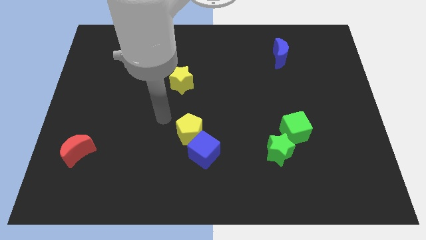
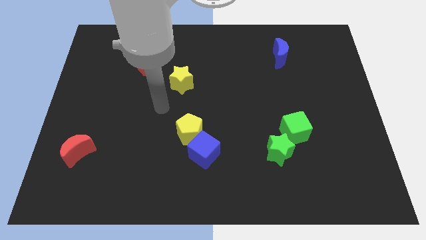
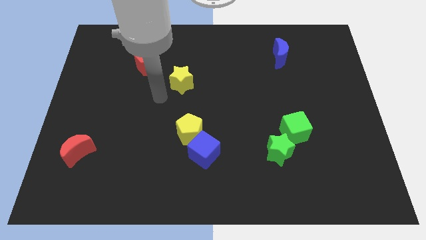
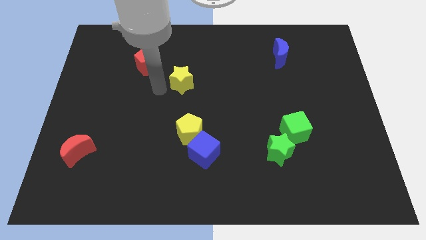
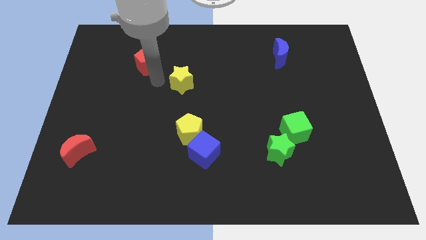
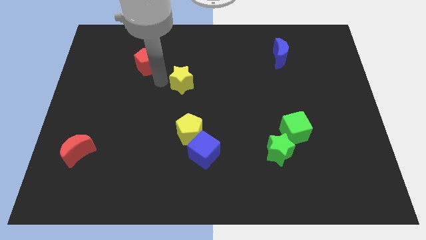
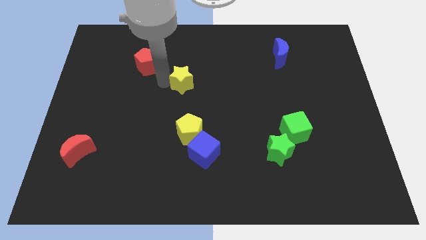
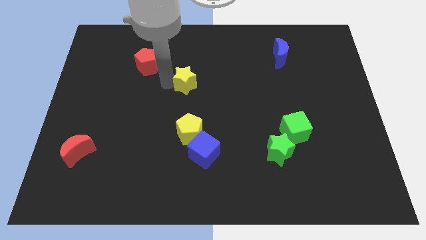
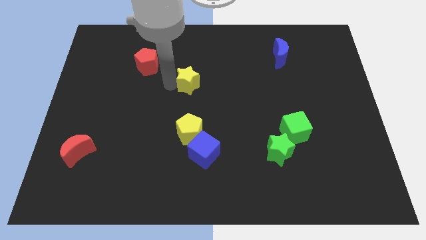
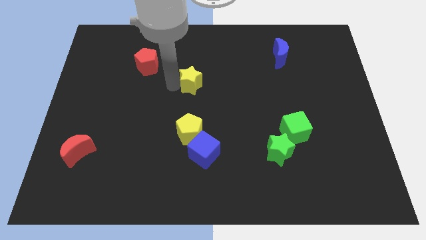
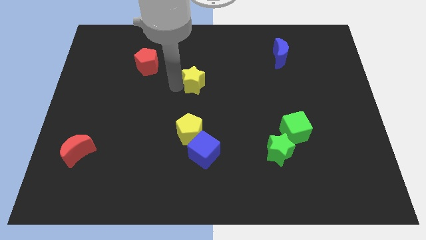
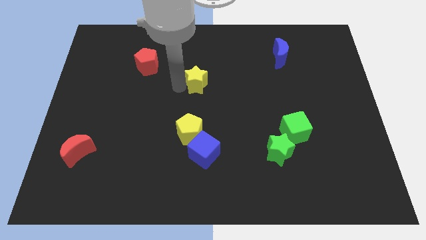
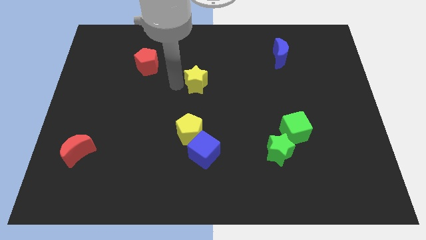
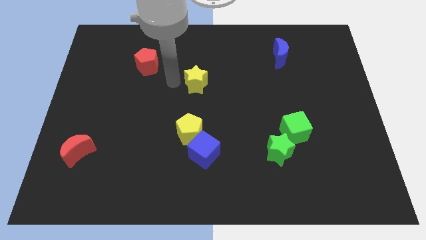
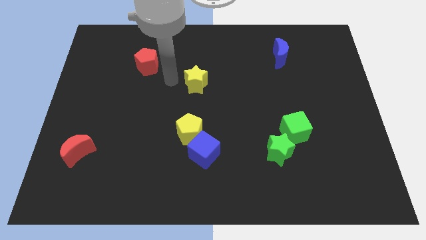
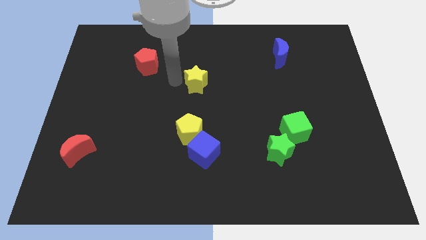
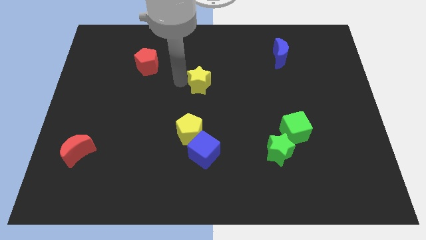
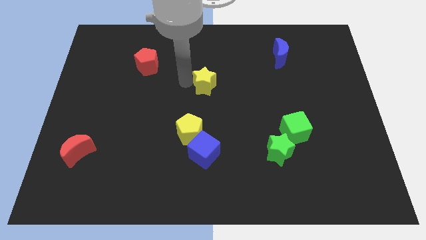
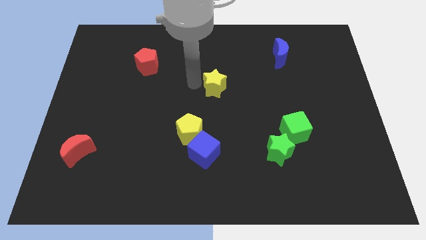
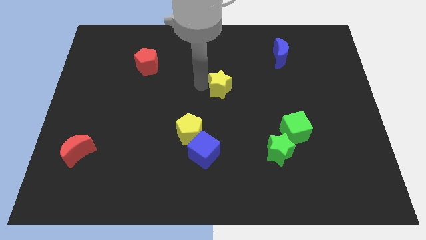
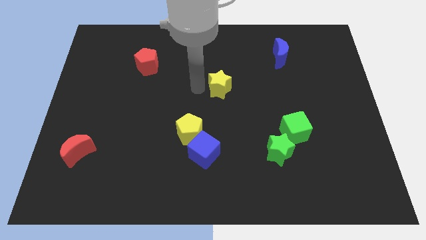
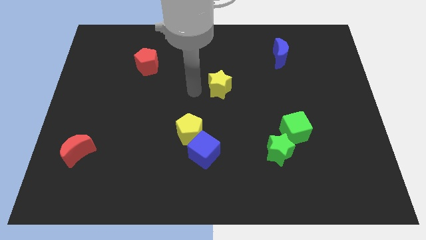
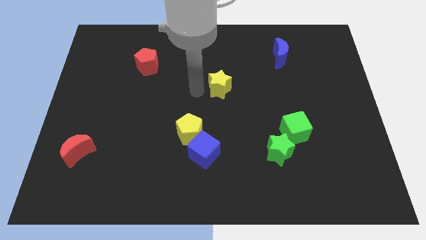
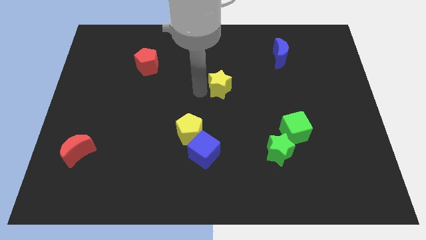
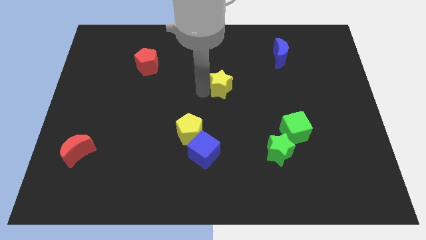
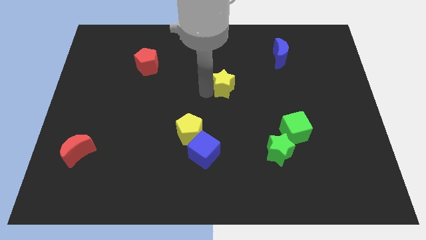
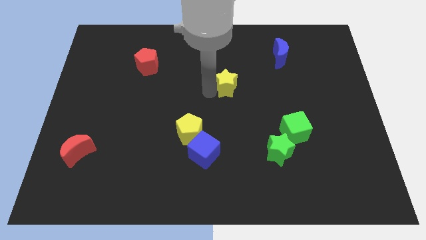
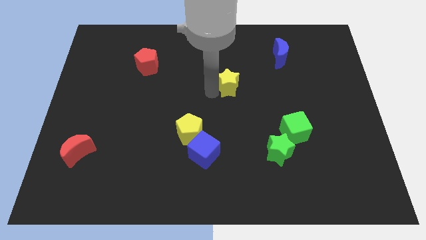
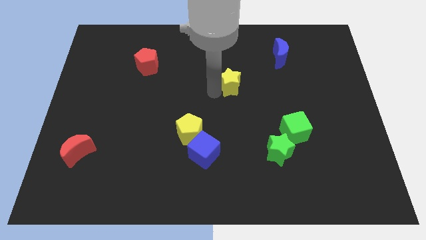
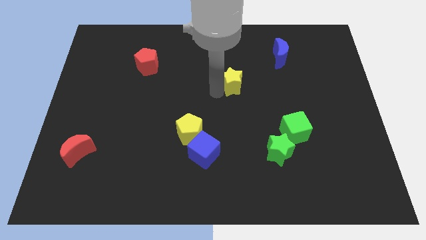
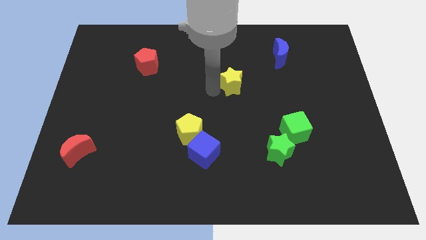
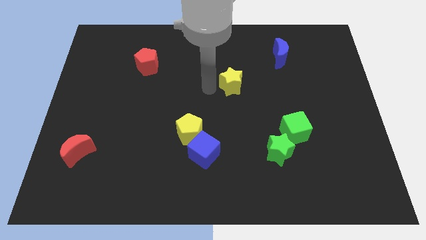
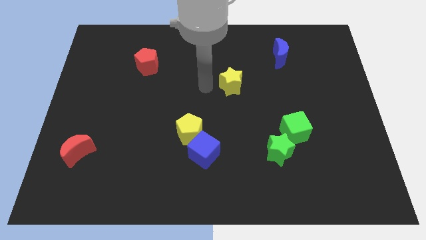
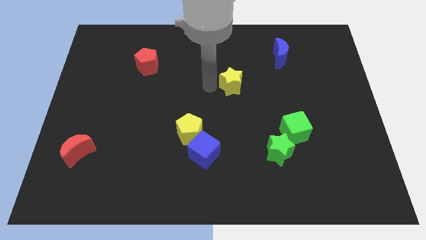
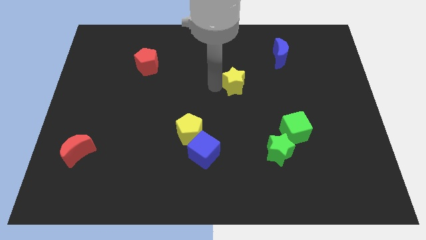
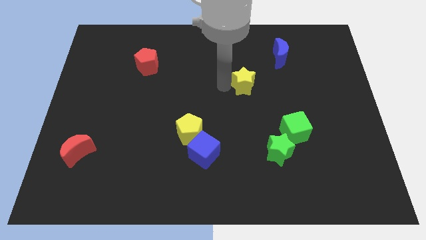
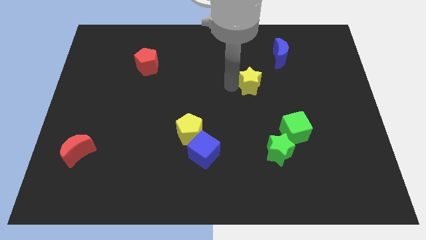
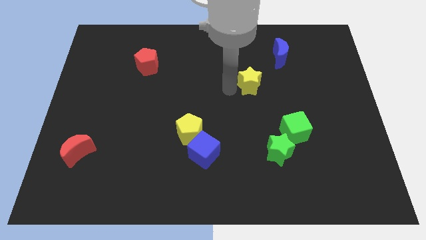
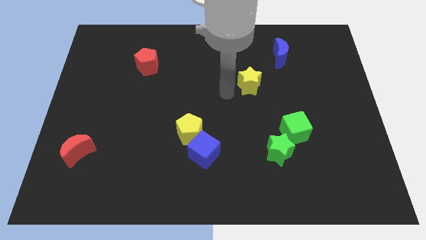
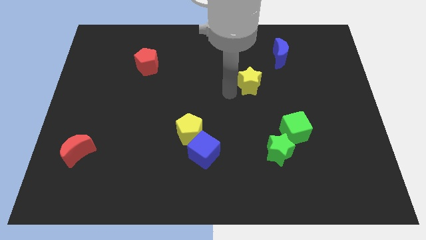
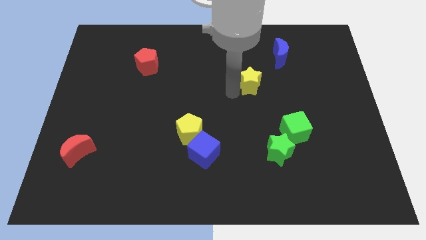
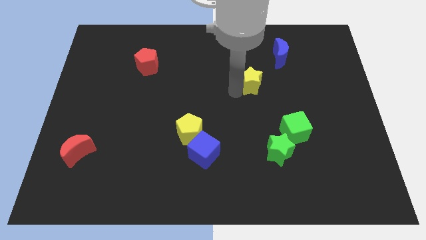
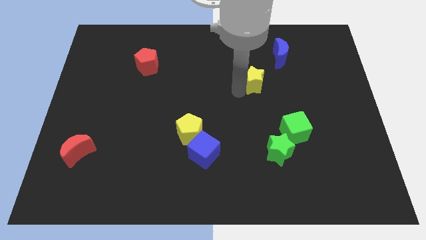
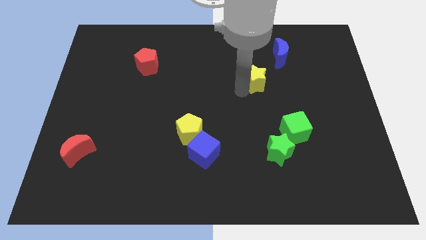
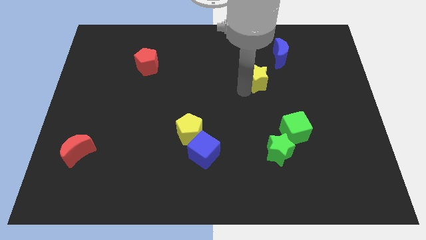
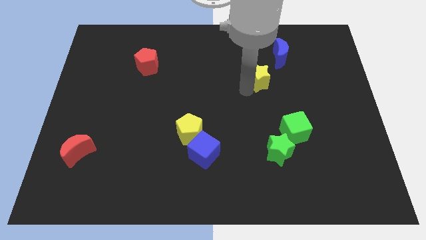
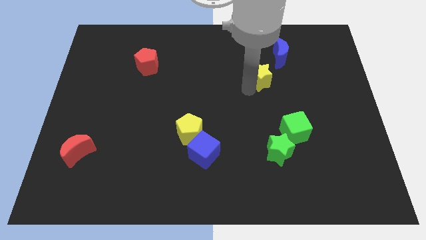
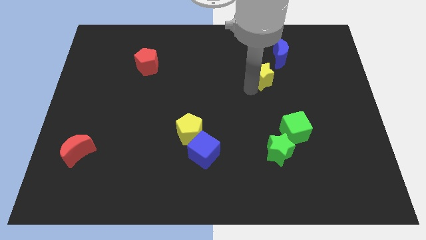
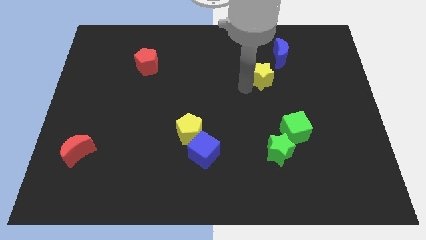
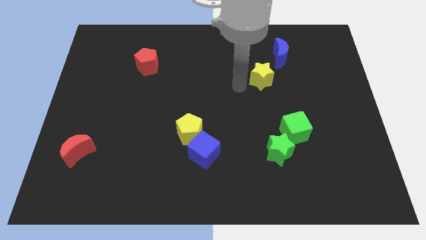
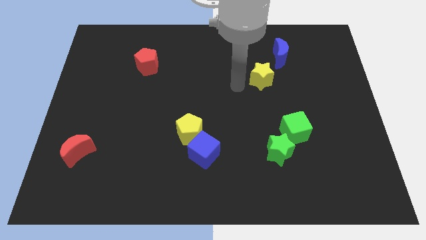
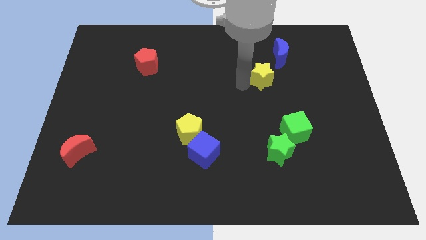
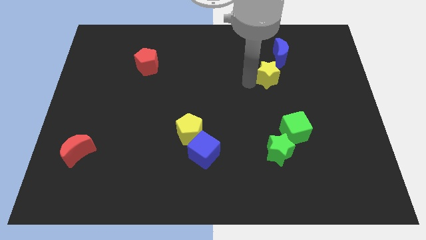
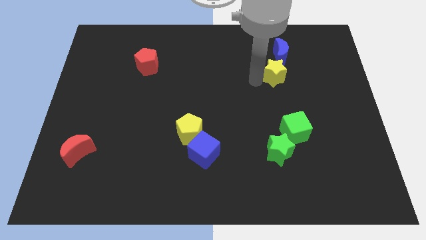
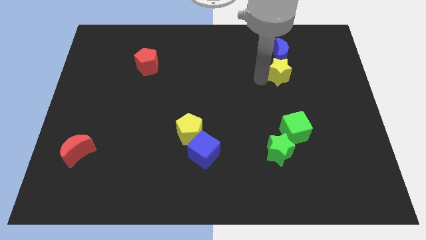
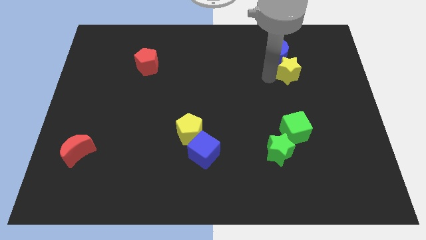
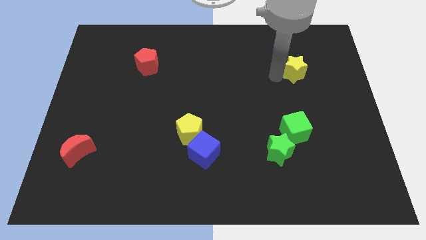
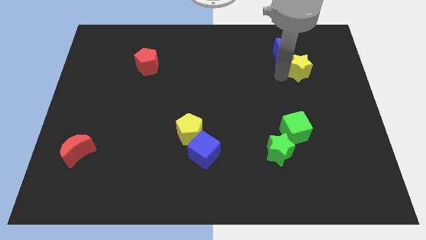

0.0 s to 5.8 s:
push the yellow star to the right side of the blue moon

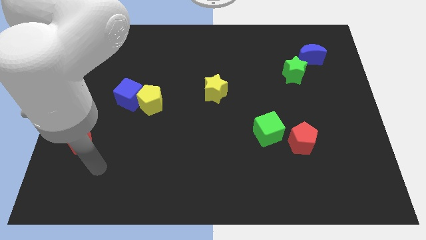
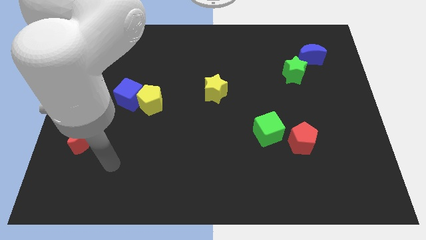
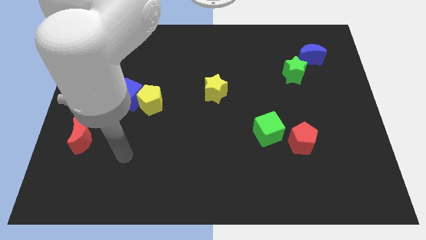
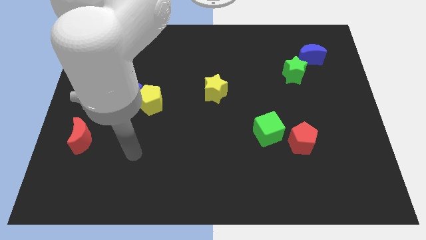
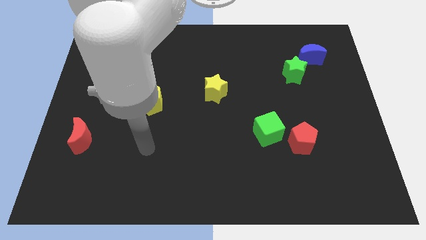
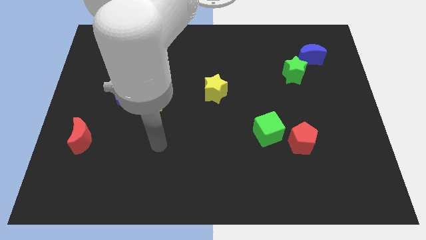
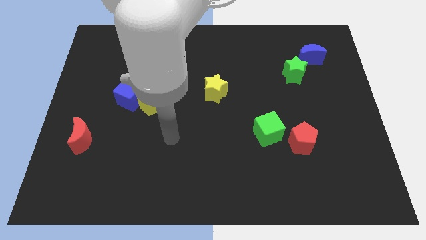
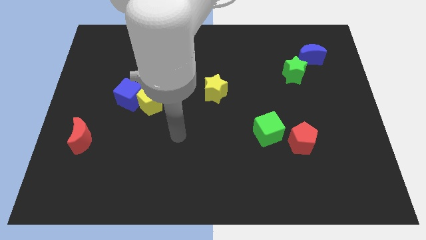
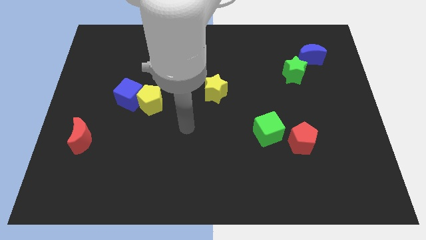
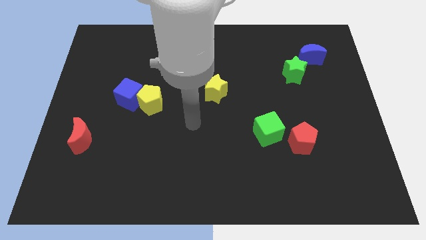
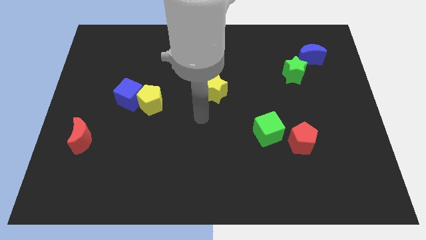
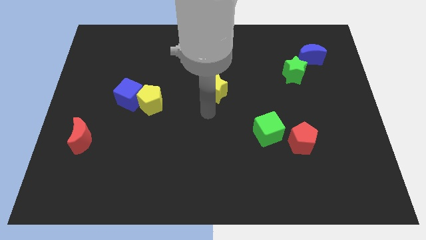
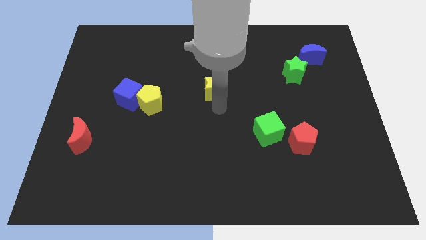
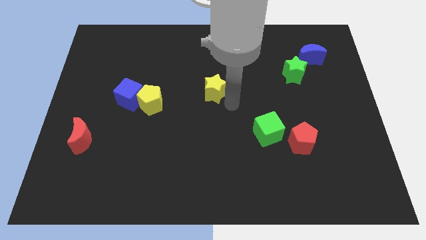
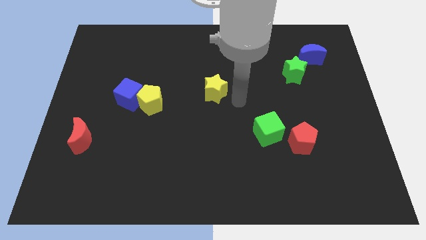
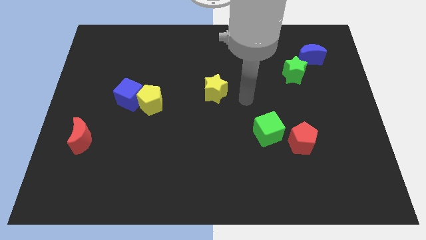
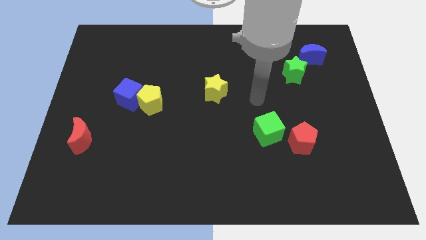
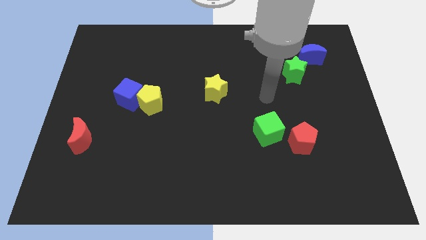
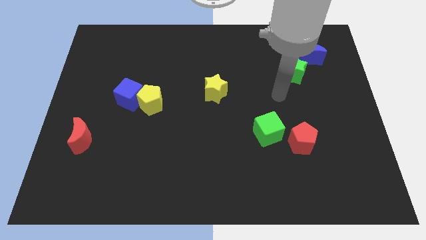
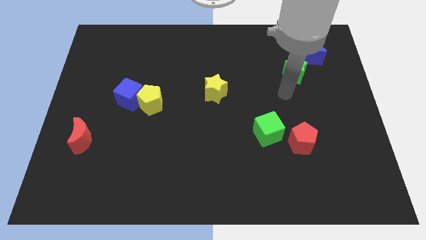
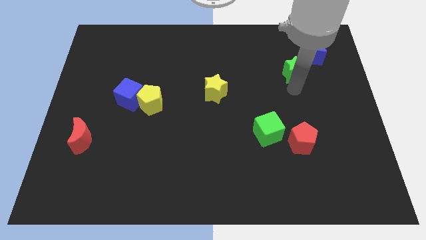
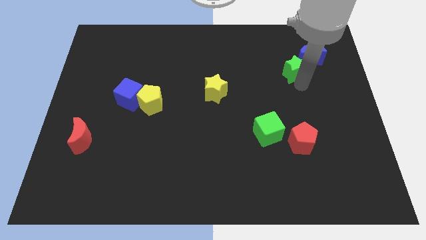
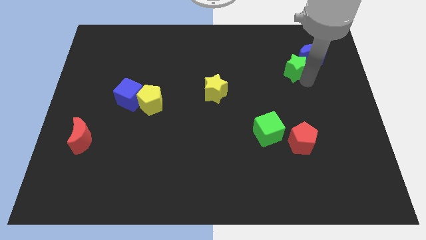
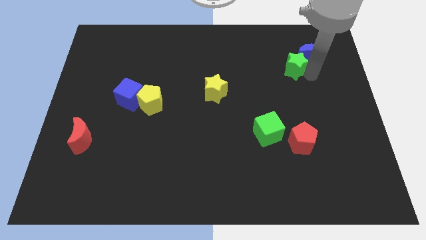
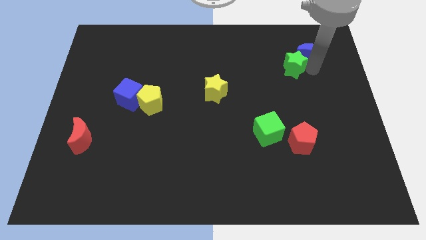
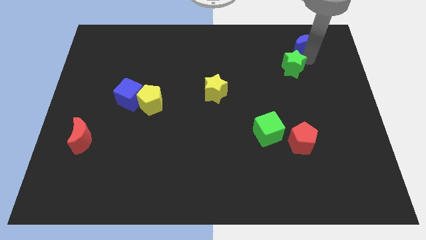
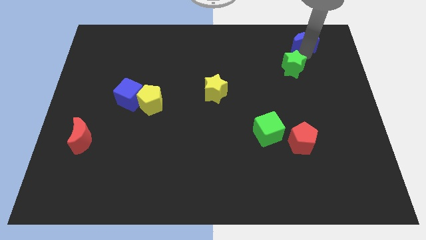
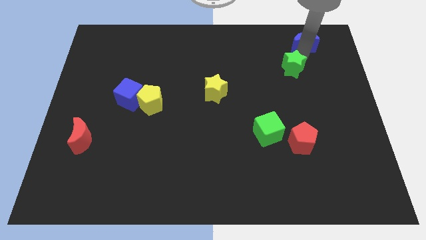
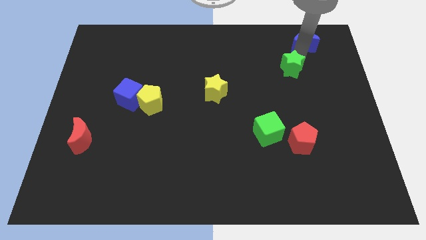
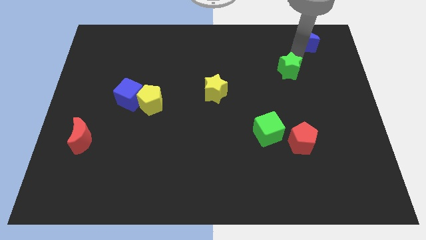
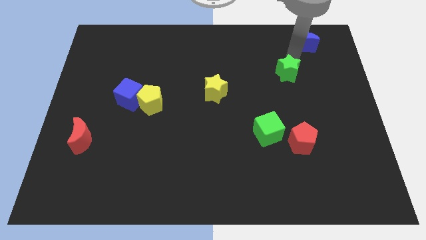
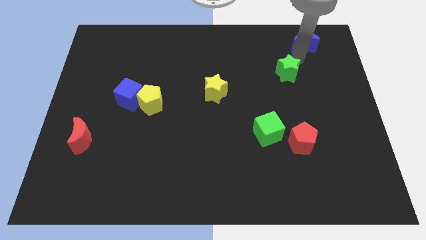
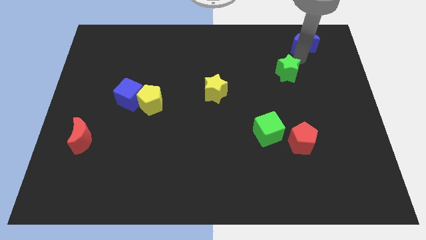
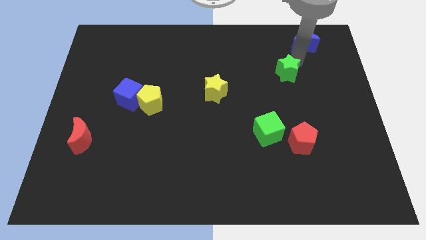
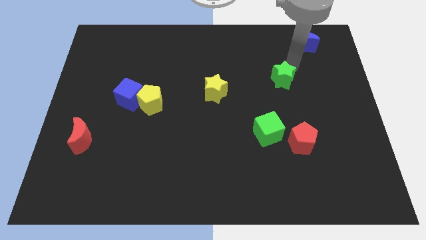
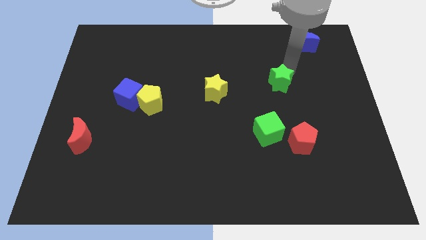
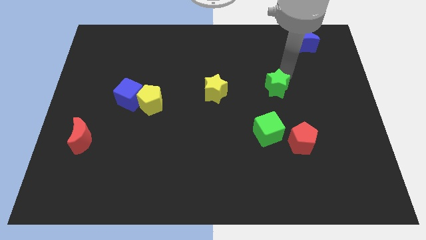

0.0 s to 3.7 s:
push the green star to the top of the green cube
